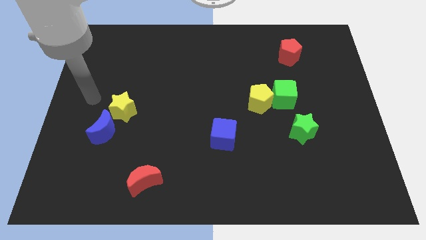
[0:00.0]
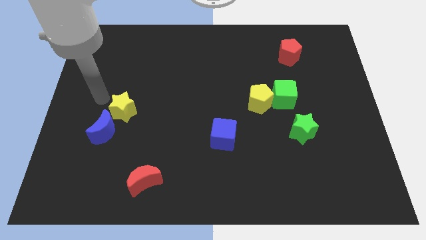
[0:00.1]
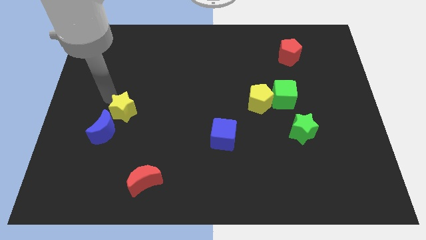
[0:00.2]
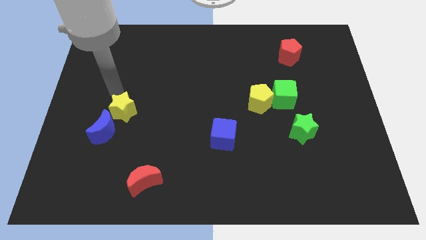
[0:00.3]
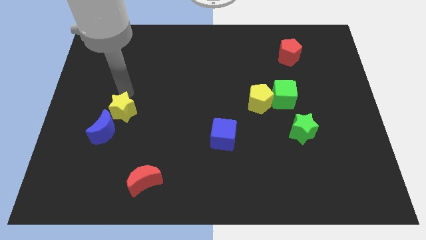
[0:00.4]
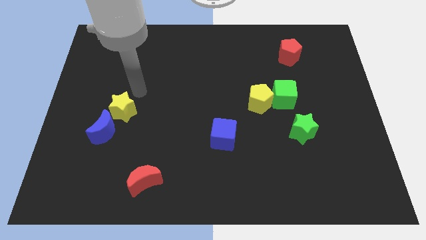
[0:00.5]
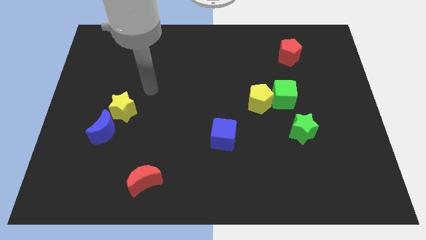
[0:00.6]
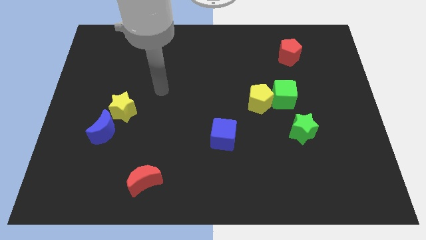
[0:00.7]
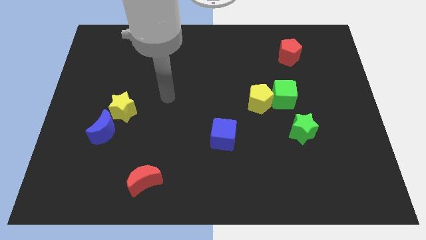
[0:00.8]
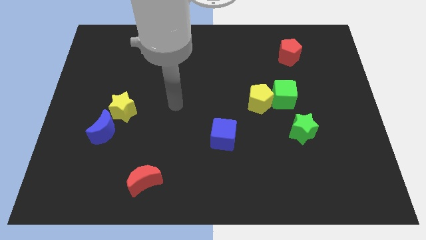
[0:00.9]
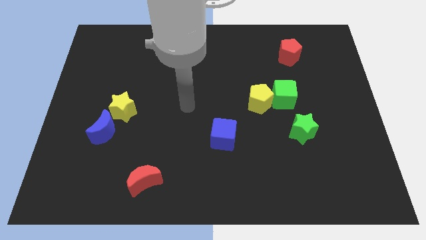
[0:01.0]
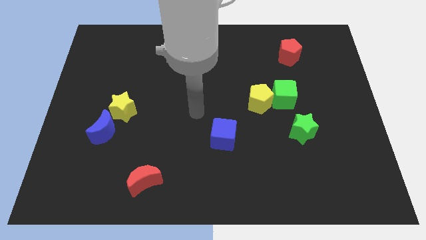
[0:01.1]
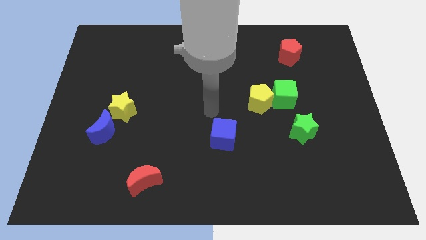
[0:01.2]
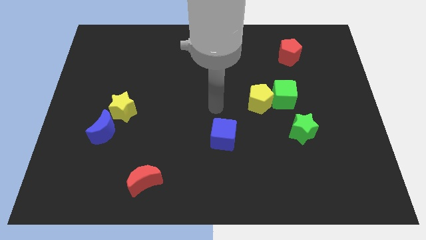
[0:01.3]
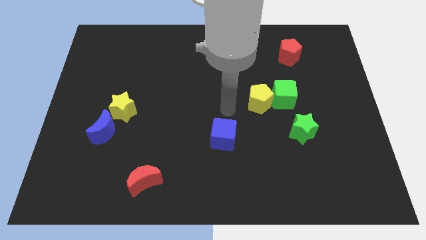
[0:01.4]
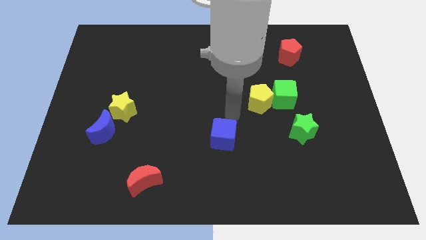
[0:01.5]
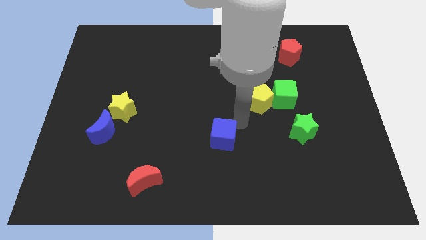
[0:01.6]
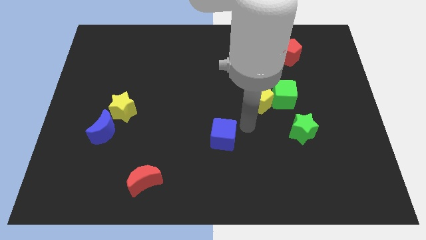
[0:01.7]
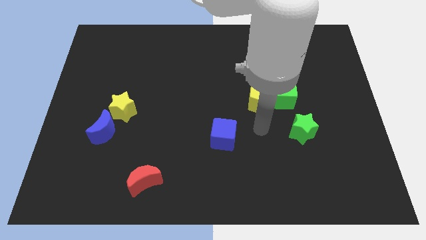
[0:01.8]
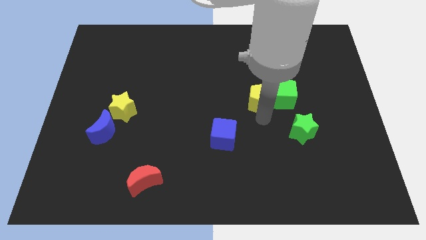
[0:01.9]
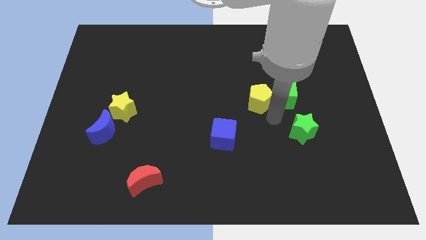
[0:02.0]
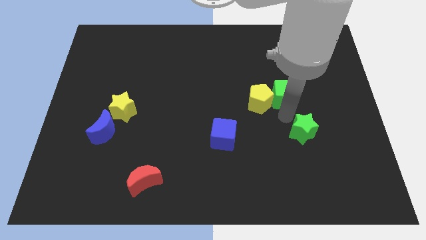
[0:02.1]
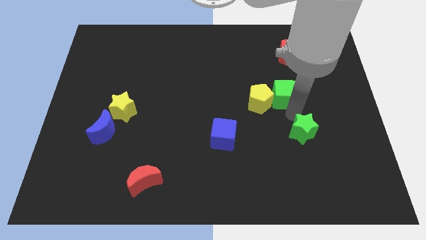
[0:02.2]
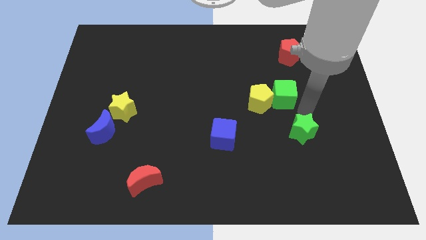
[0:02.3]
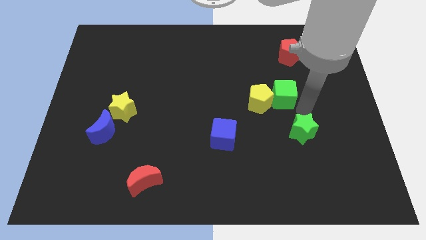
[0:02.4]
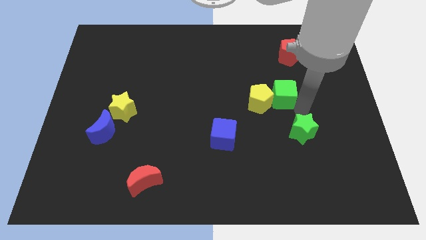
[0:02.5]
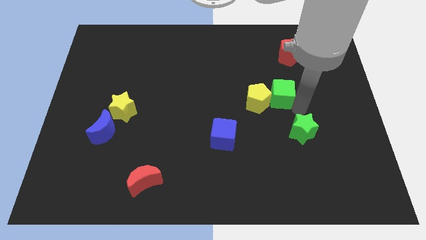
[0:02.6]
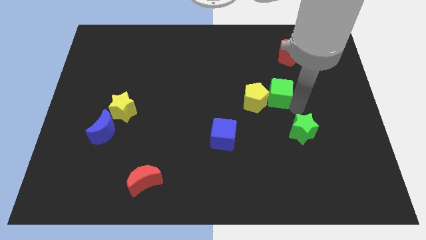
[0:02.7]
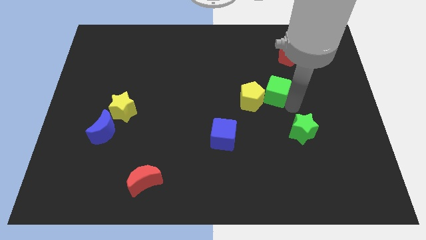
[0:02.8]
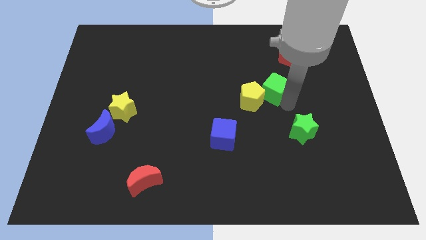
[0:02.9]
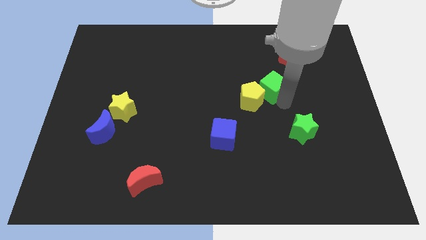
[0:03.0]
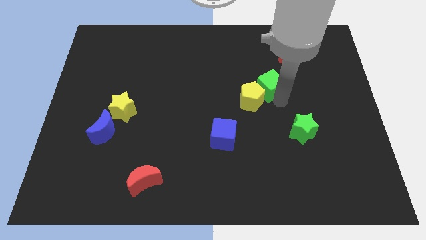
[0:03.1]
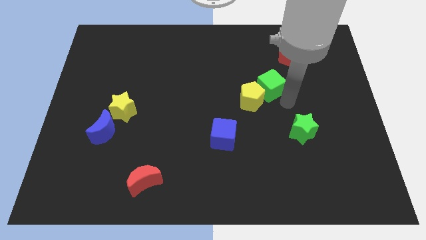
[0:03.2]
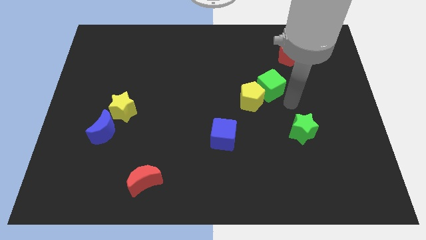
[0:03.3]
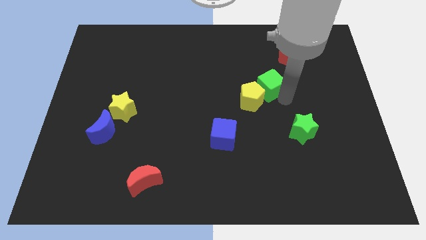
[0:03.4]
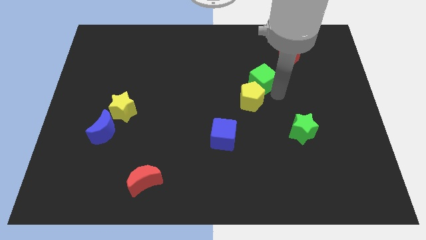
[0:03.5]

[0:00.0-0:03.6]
slightly move the green cube diagonally up and left

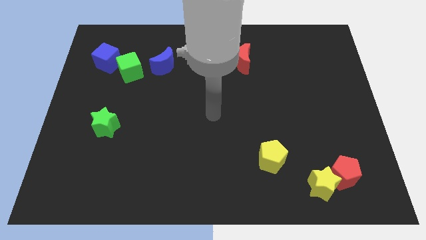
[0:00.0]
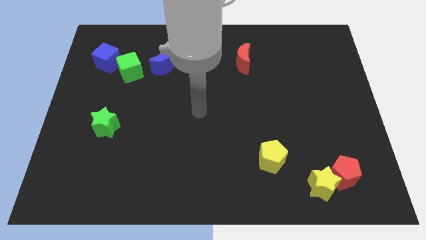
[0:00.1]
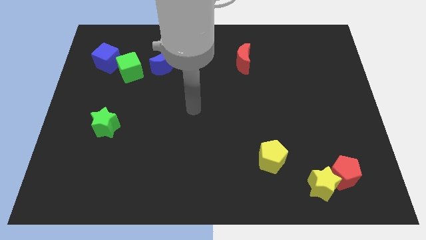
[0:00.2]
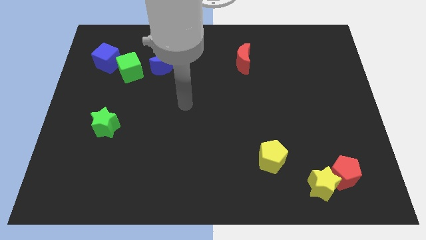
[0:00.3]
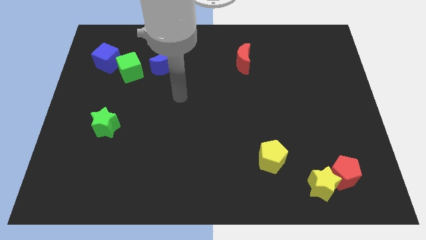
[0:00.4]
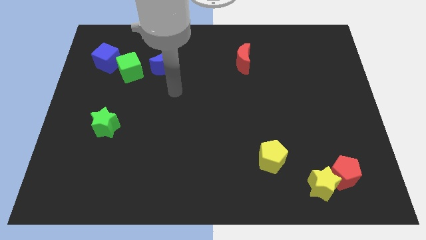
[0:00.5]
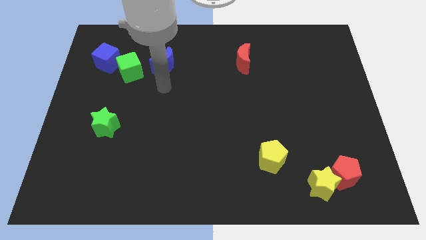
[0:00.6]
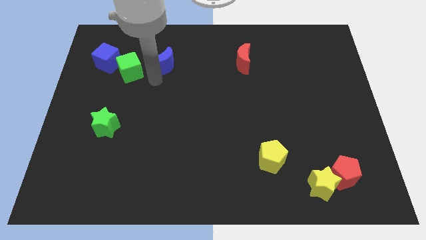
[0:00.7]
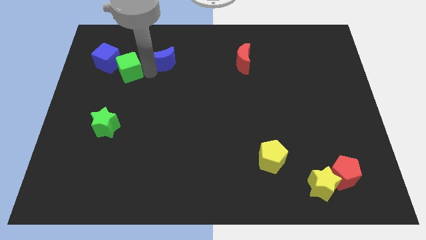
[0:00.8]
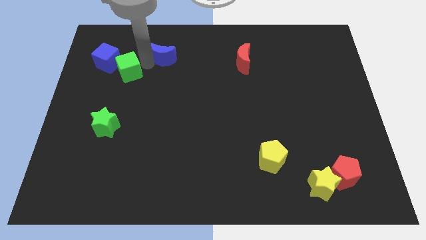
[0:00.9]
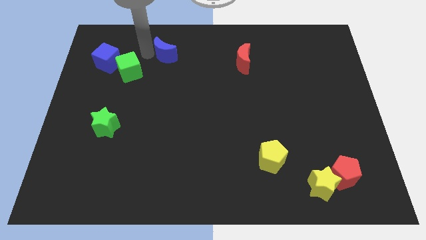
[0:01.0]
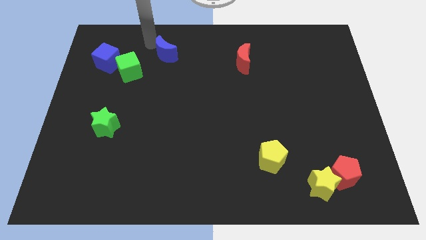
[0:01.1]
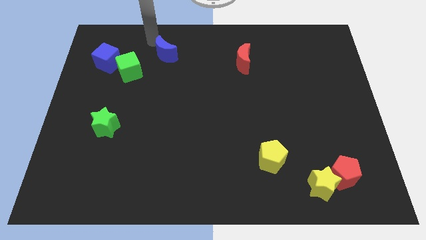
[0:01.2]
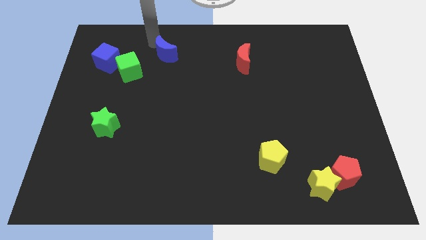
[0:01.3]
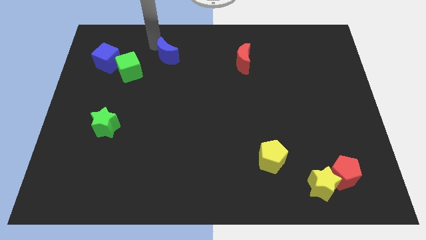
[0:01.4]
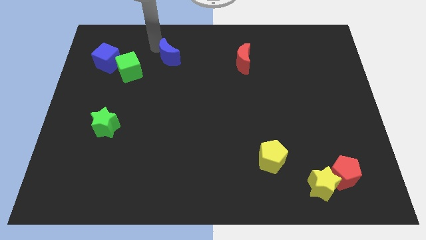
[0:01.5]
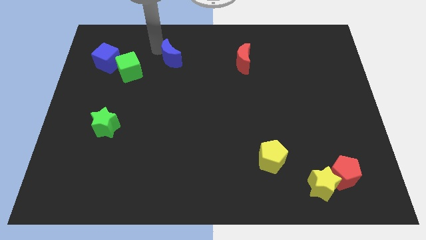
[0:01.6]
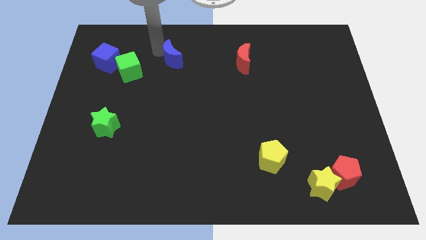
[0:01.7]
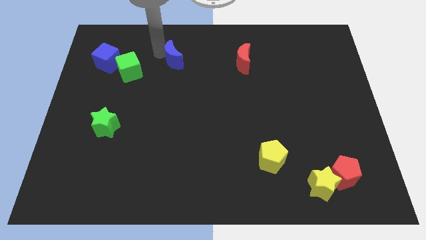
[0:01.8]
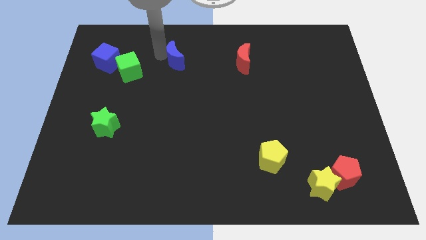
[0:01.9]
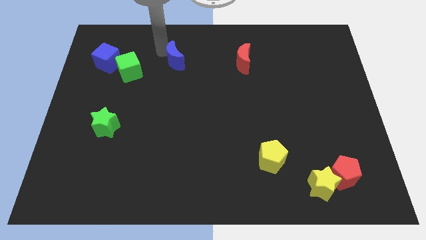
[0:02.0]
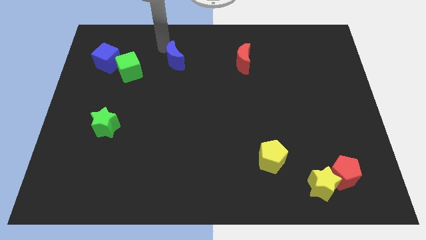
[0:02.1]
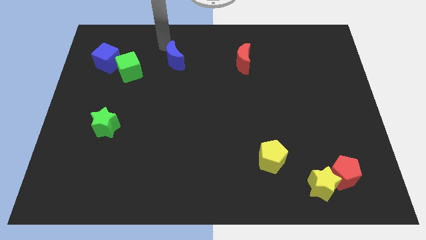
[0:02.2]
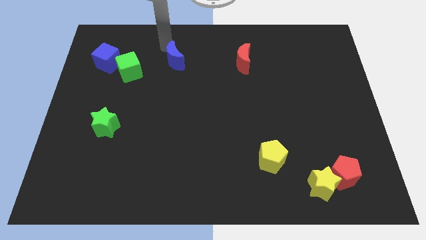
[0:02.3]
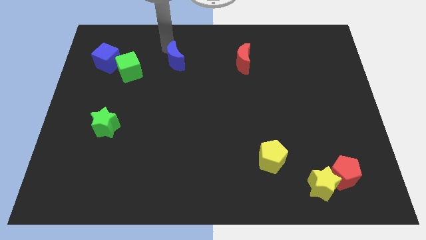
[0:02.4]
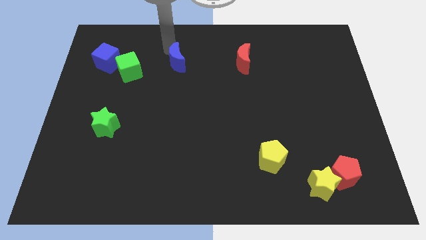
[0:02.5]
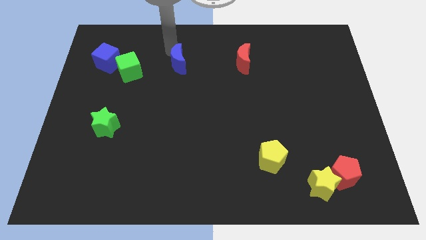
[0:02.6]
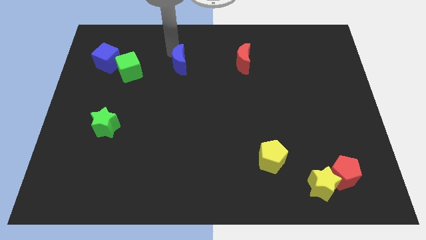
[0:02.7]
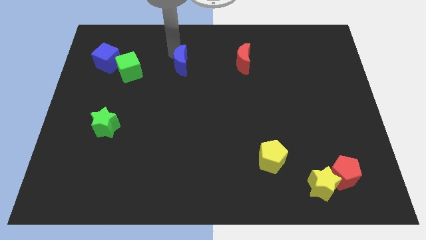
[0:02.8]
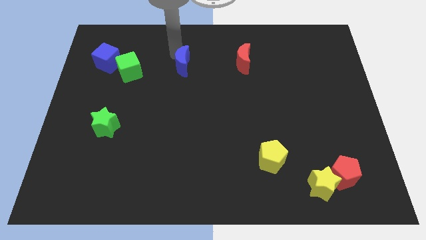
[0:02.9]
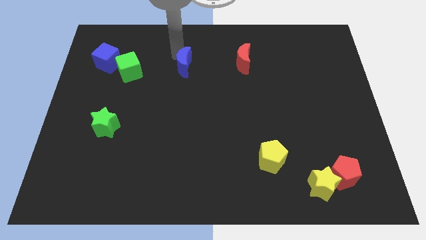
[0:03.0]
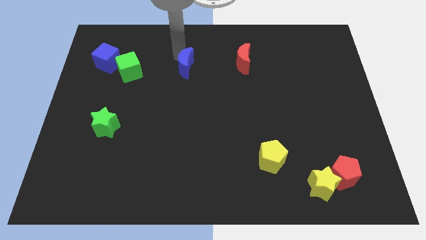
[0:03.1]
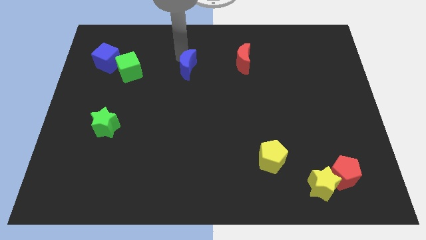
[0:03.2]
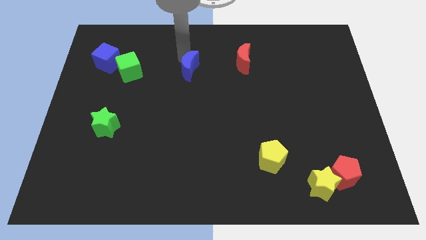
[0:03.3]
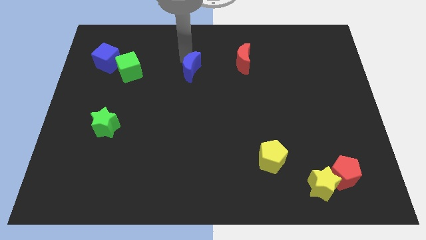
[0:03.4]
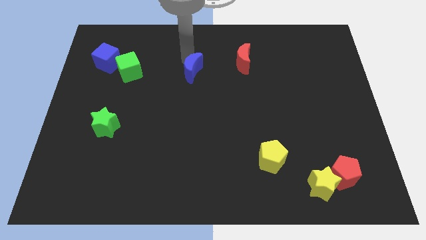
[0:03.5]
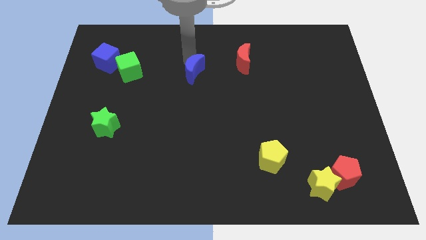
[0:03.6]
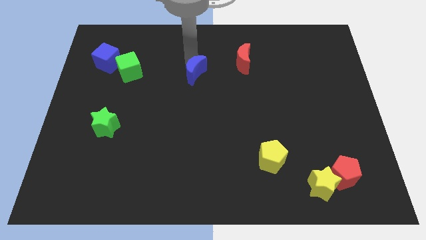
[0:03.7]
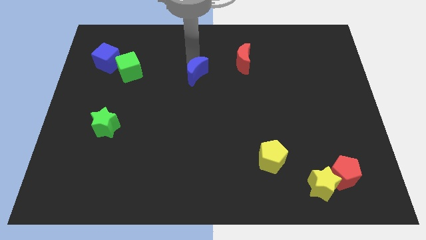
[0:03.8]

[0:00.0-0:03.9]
slide the blue moon somewhat downwards and to the right diagonally

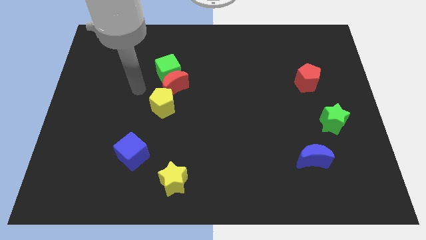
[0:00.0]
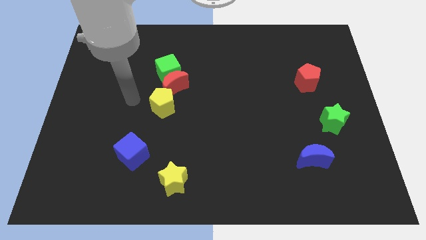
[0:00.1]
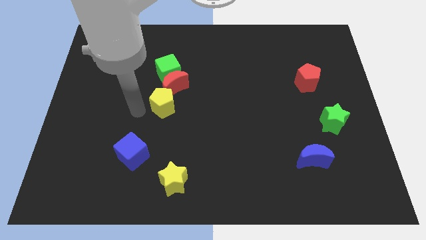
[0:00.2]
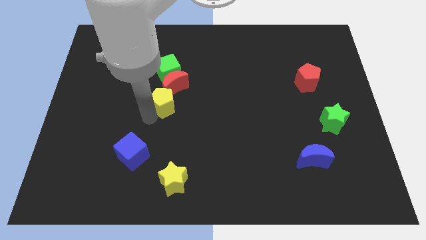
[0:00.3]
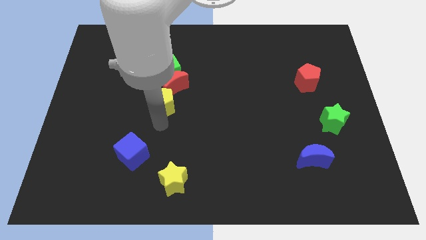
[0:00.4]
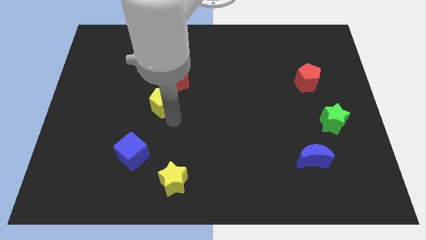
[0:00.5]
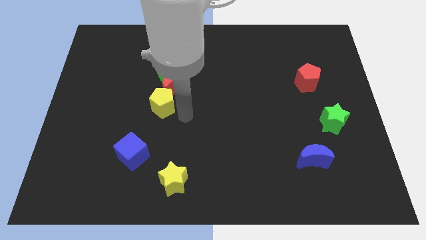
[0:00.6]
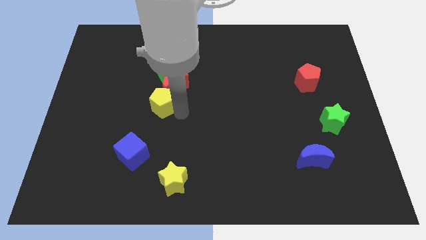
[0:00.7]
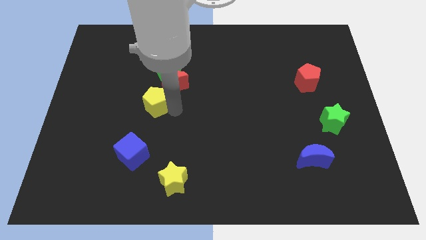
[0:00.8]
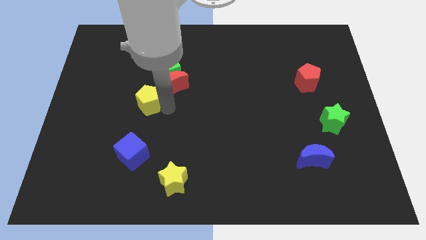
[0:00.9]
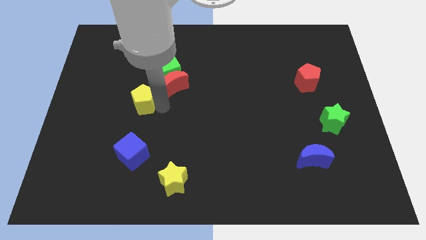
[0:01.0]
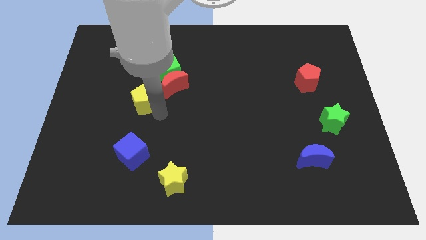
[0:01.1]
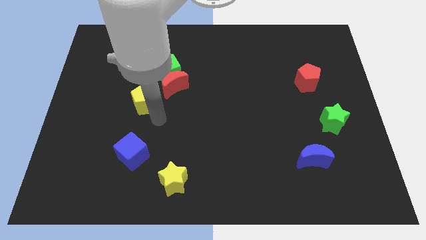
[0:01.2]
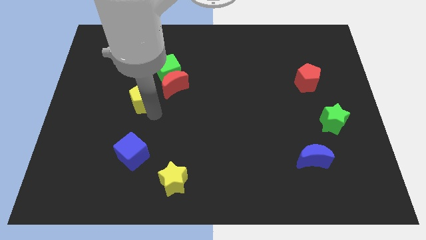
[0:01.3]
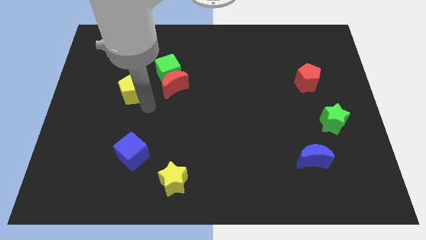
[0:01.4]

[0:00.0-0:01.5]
slide the yellow pentagon slightly upwards and then to the left
